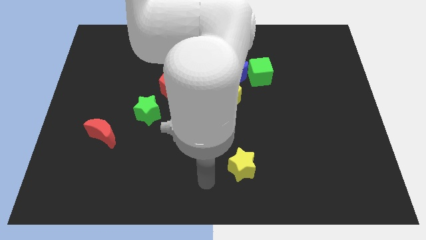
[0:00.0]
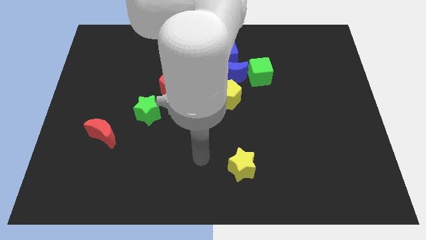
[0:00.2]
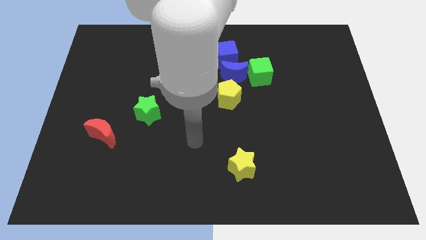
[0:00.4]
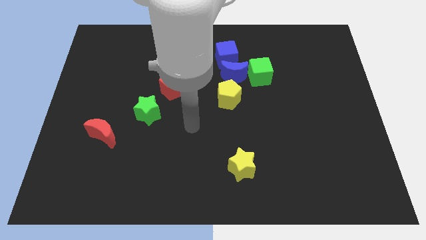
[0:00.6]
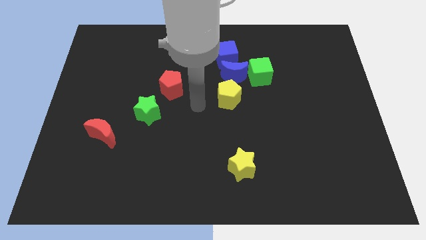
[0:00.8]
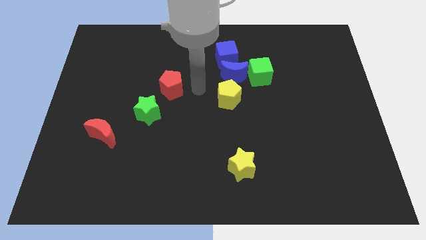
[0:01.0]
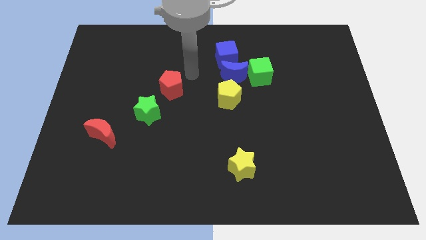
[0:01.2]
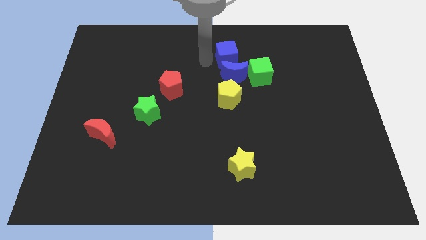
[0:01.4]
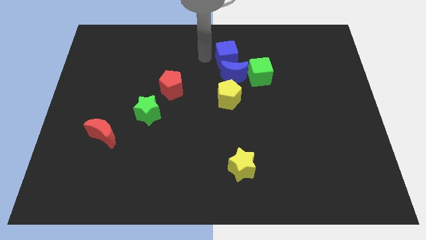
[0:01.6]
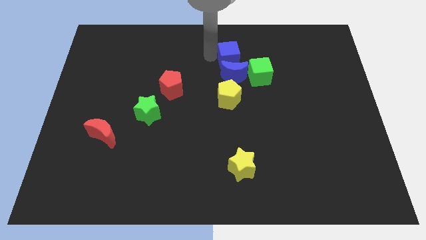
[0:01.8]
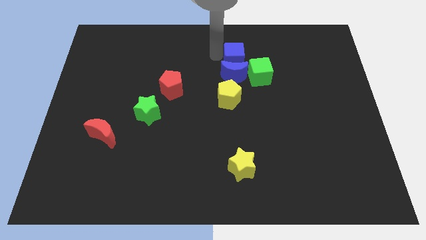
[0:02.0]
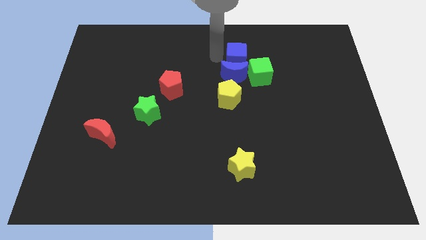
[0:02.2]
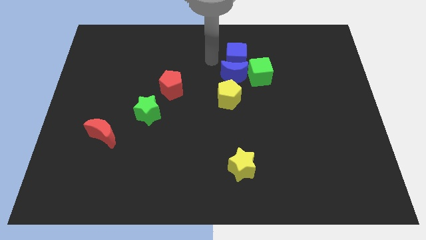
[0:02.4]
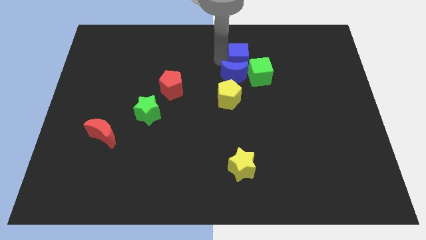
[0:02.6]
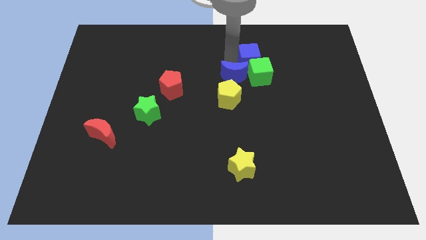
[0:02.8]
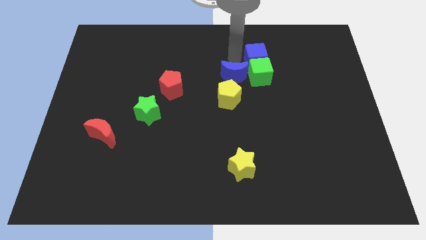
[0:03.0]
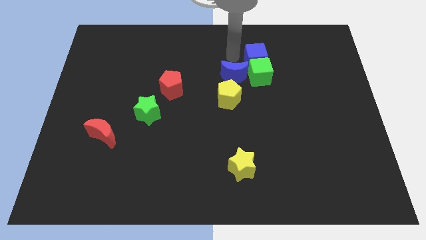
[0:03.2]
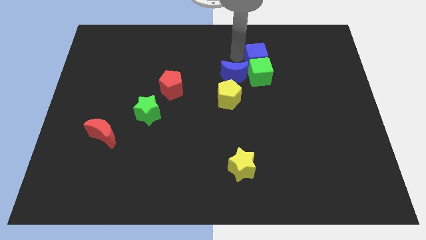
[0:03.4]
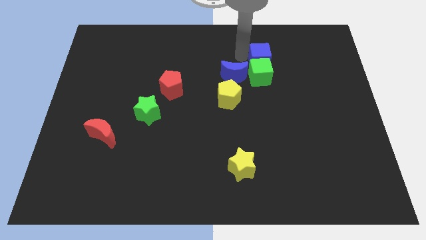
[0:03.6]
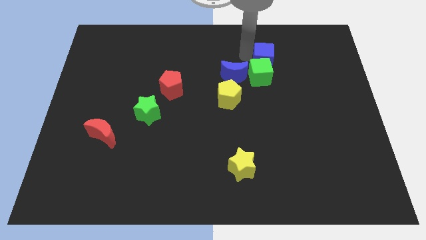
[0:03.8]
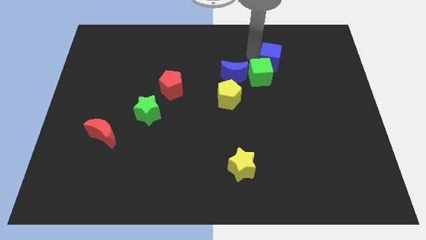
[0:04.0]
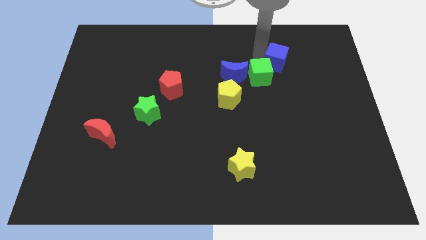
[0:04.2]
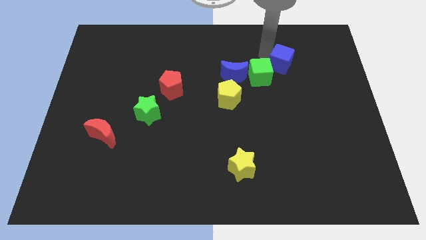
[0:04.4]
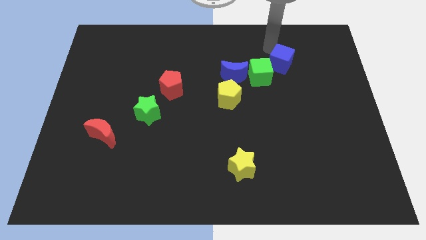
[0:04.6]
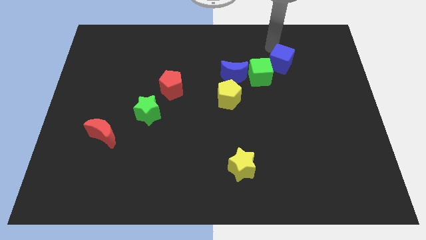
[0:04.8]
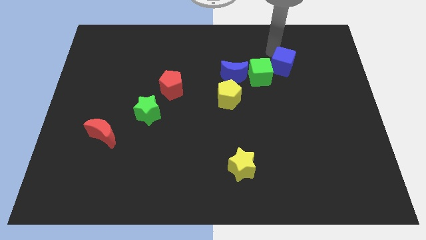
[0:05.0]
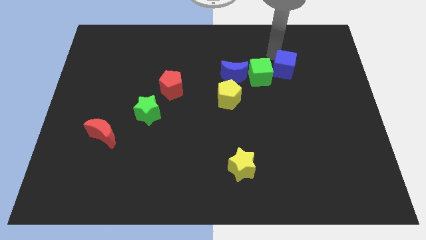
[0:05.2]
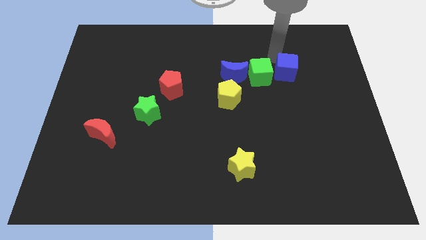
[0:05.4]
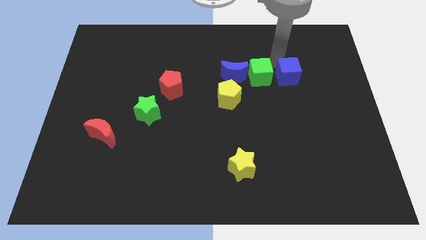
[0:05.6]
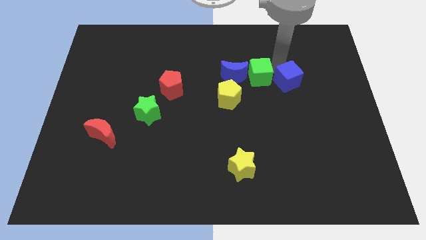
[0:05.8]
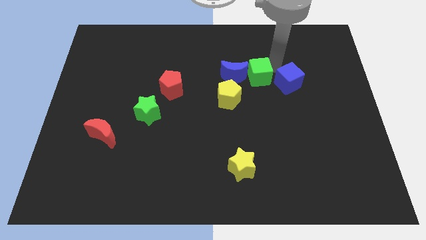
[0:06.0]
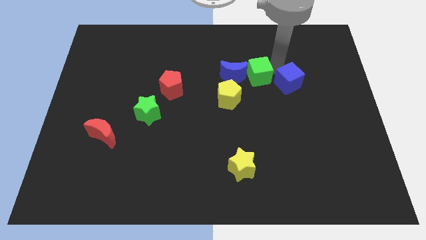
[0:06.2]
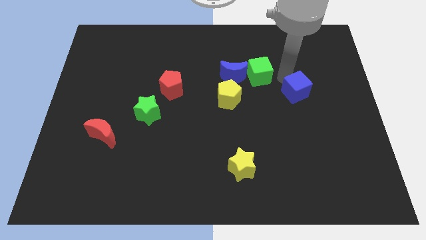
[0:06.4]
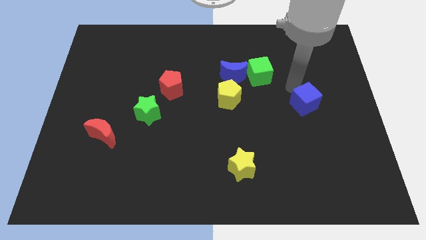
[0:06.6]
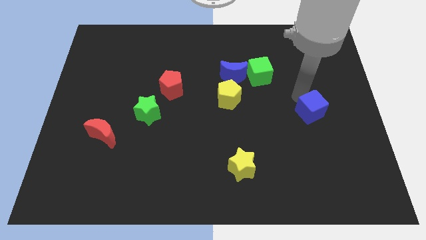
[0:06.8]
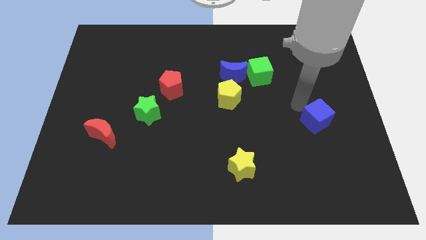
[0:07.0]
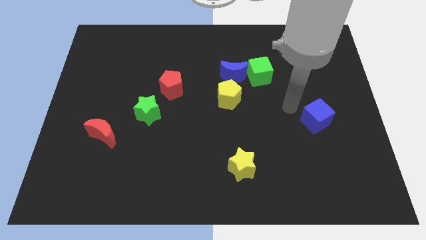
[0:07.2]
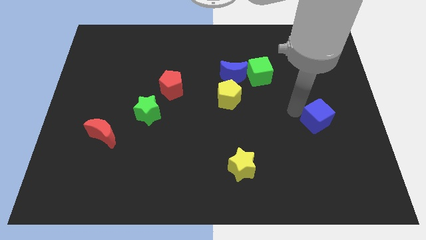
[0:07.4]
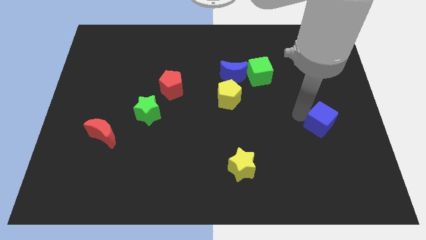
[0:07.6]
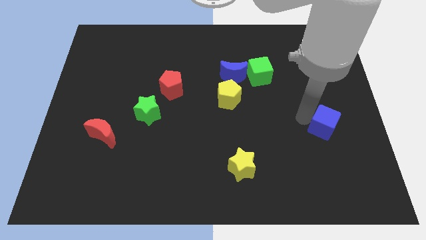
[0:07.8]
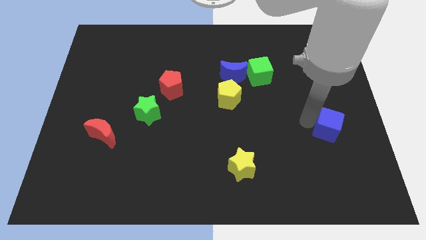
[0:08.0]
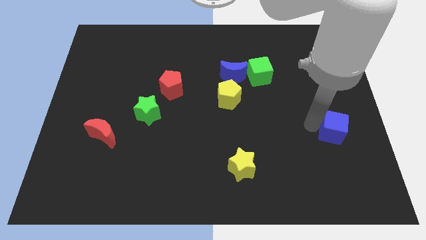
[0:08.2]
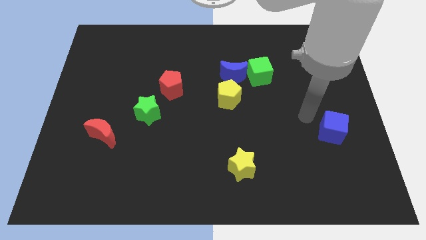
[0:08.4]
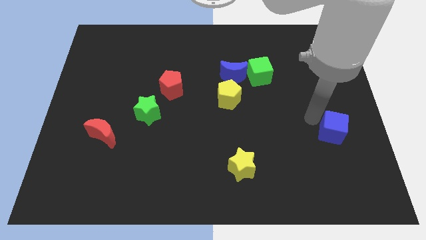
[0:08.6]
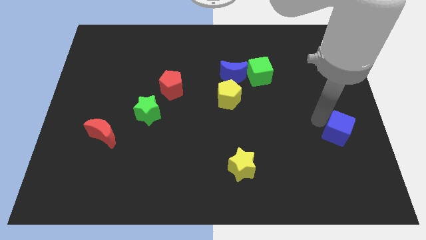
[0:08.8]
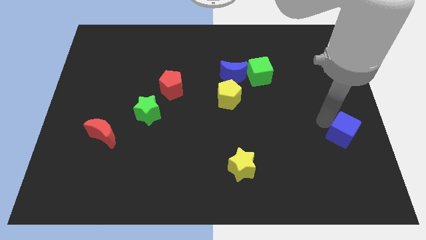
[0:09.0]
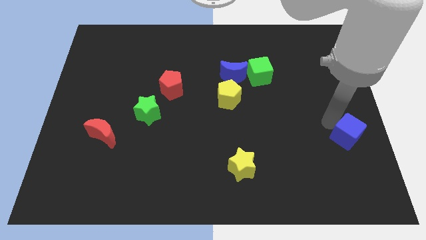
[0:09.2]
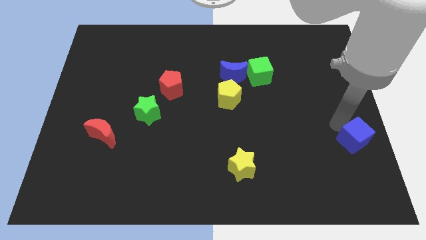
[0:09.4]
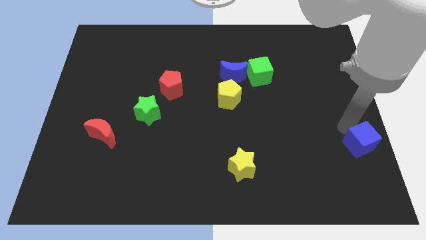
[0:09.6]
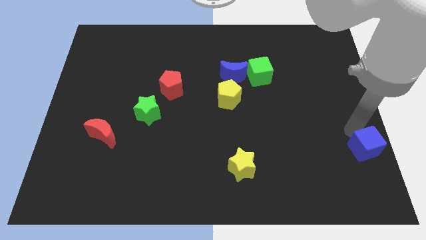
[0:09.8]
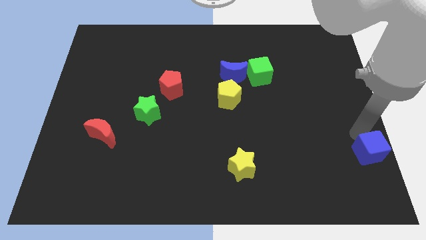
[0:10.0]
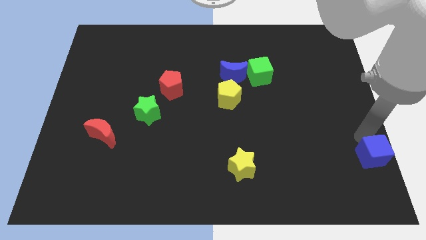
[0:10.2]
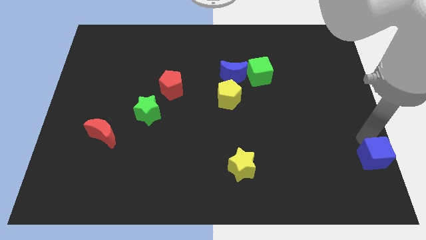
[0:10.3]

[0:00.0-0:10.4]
push the blue cube to the bottom right corner

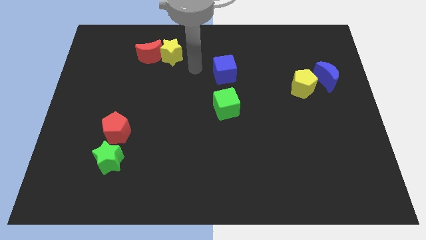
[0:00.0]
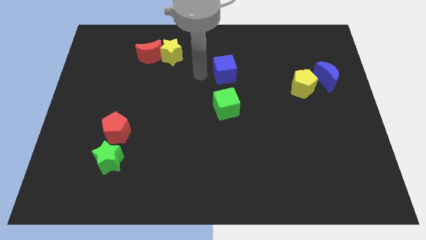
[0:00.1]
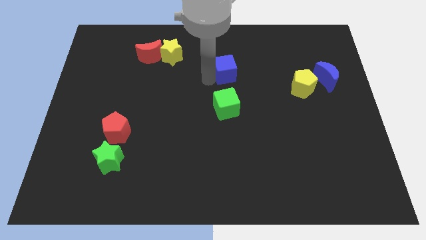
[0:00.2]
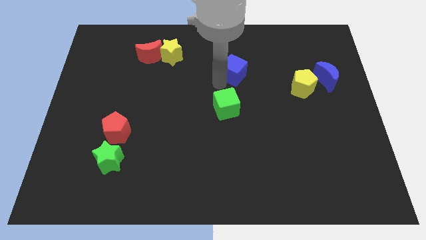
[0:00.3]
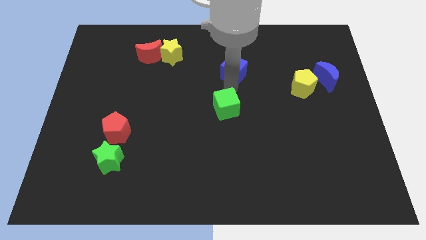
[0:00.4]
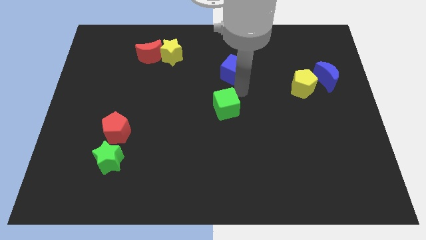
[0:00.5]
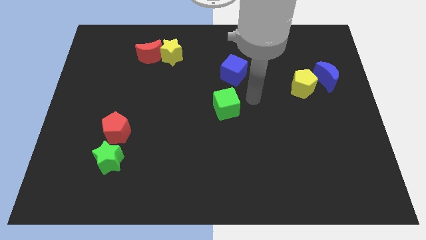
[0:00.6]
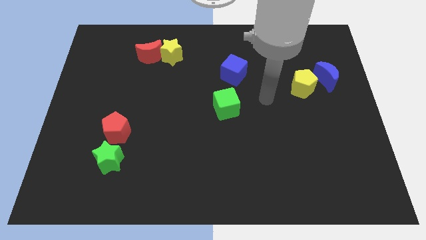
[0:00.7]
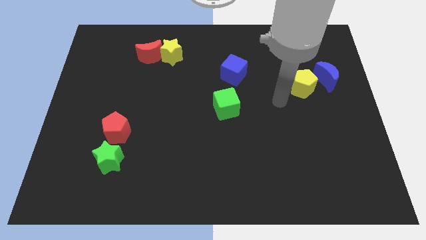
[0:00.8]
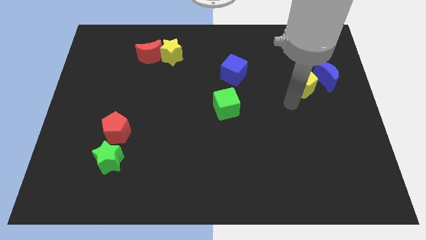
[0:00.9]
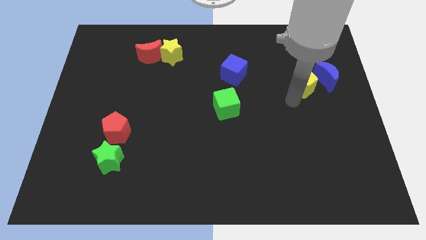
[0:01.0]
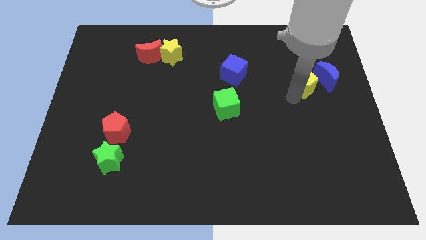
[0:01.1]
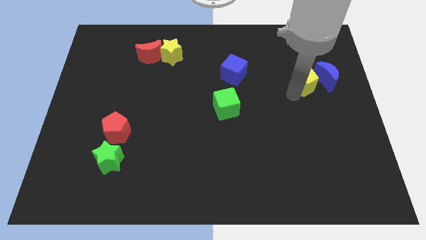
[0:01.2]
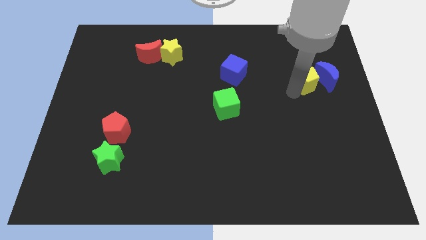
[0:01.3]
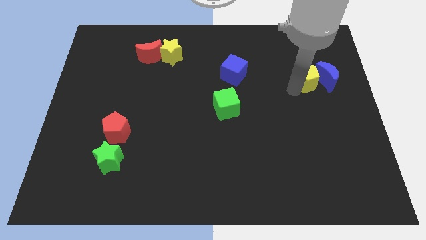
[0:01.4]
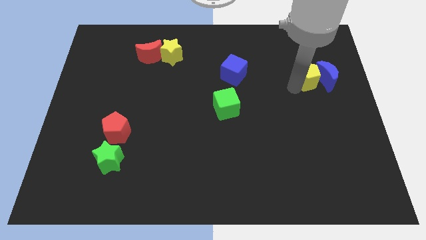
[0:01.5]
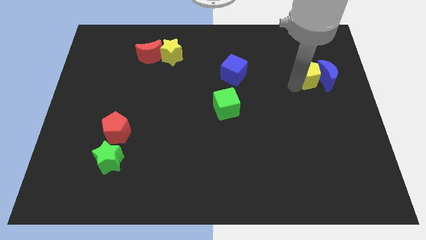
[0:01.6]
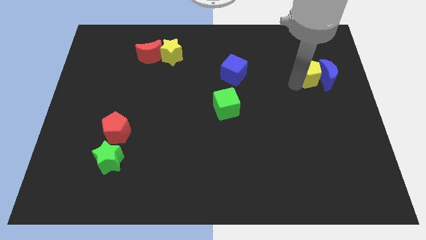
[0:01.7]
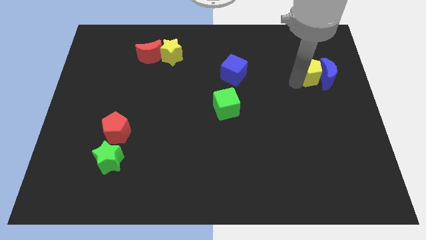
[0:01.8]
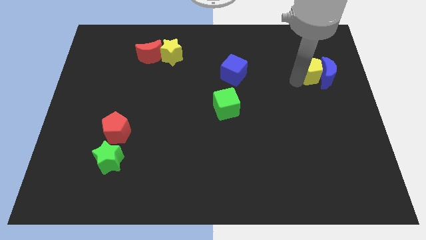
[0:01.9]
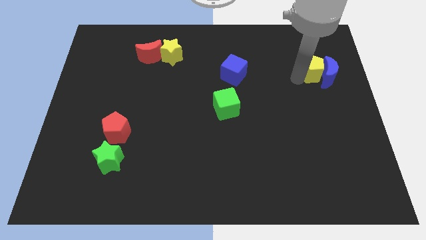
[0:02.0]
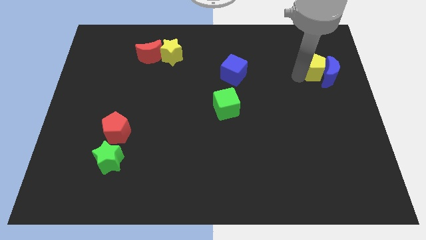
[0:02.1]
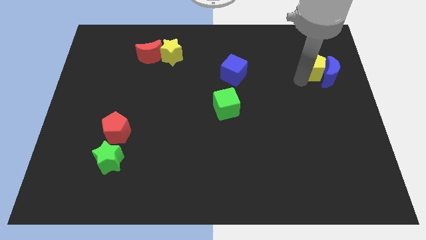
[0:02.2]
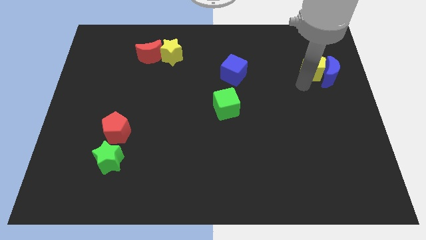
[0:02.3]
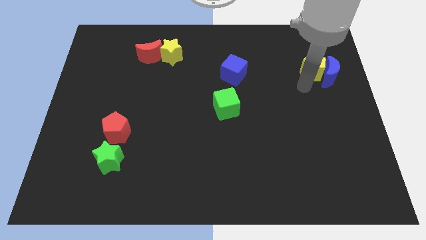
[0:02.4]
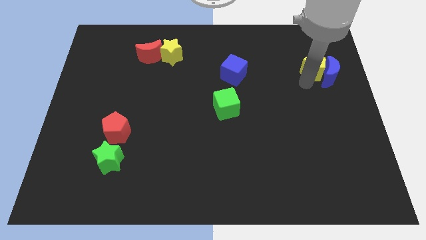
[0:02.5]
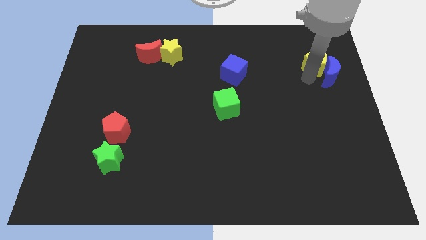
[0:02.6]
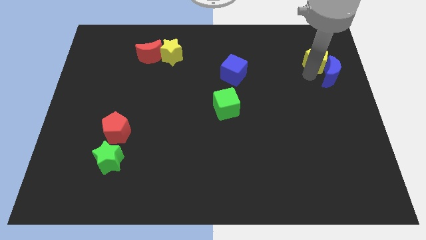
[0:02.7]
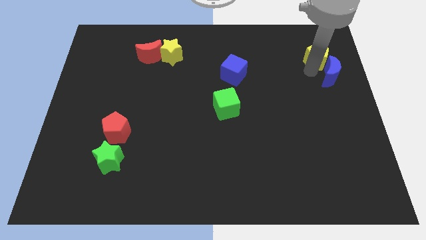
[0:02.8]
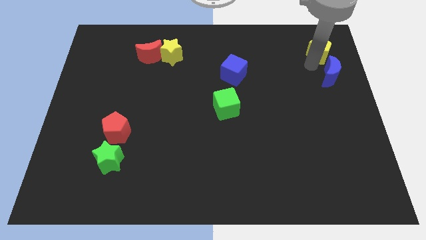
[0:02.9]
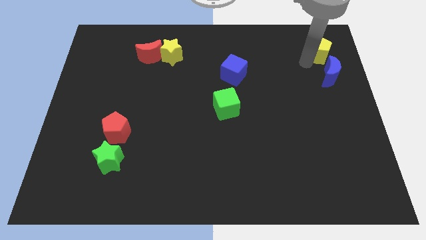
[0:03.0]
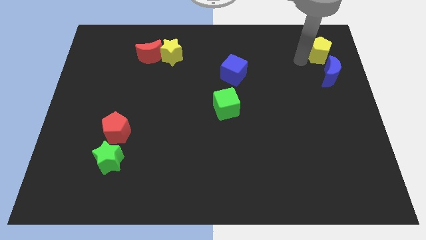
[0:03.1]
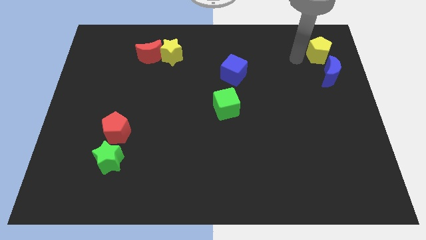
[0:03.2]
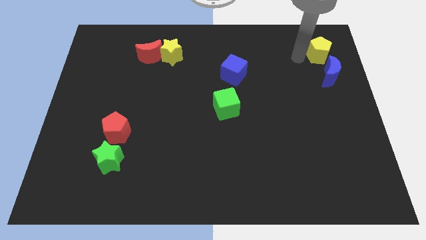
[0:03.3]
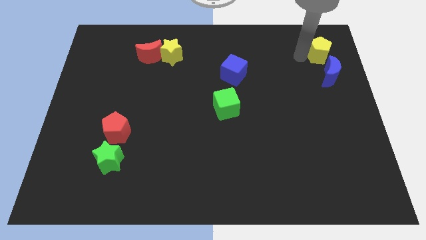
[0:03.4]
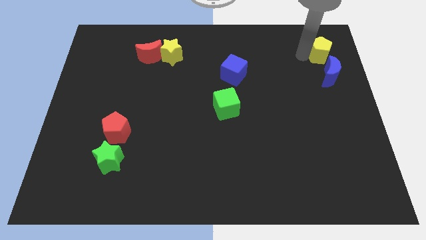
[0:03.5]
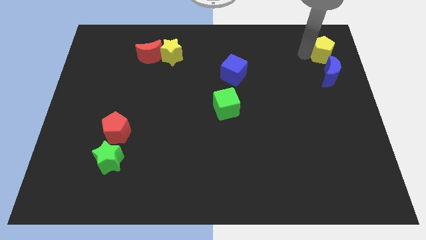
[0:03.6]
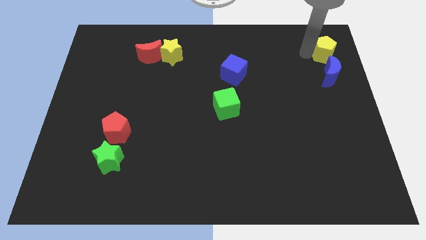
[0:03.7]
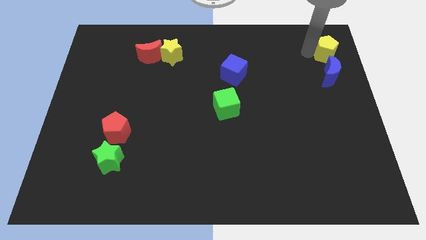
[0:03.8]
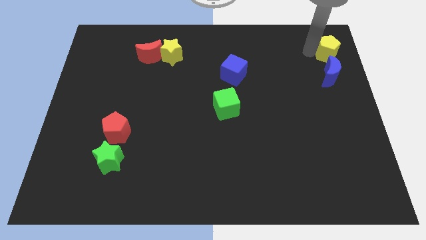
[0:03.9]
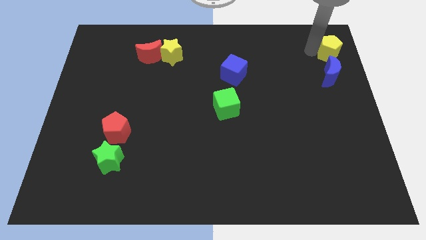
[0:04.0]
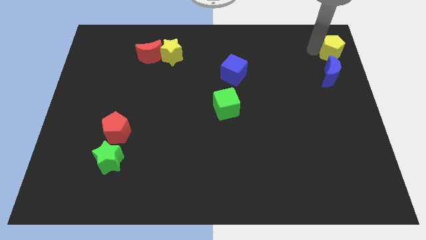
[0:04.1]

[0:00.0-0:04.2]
put the yellow pentagon to the upper right corner
